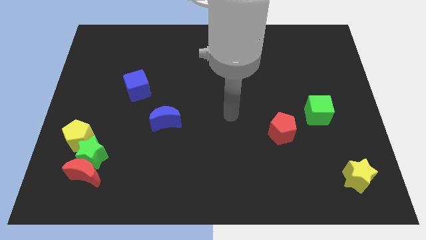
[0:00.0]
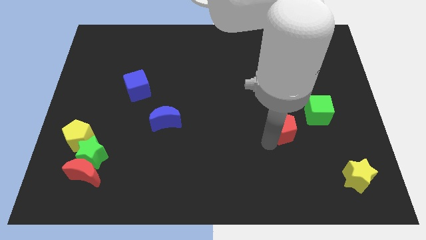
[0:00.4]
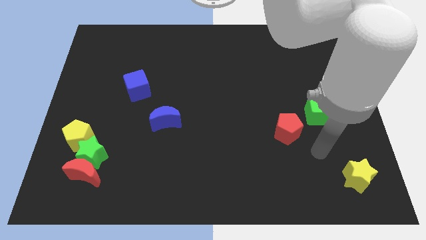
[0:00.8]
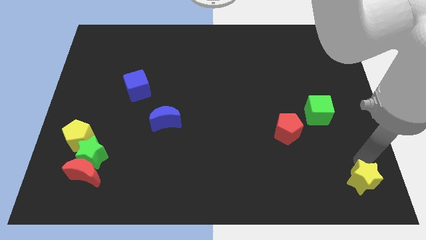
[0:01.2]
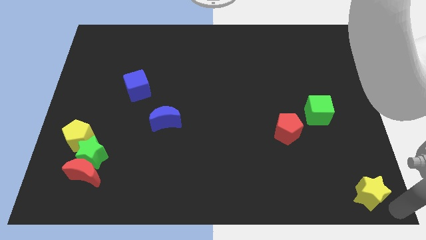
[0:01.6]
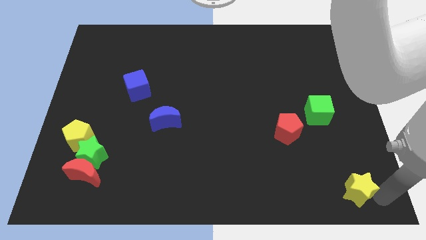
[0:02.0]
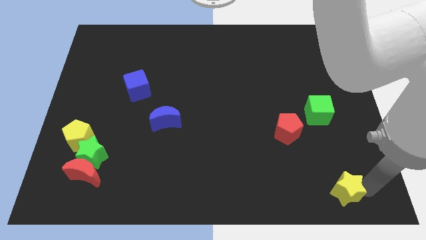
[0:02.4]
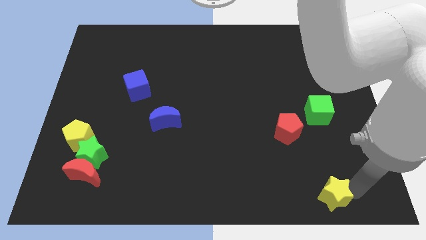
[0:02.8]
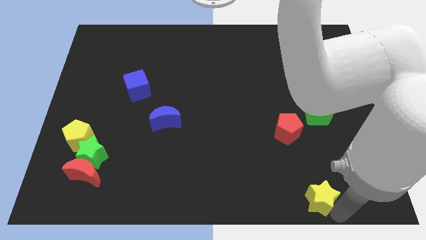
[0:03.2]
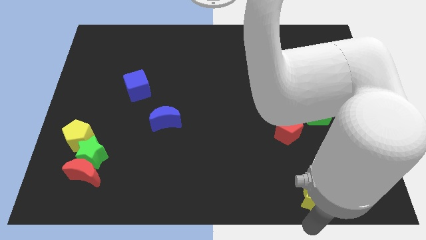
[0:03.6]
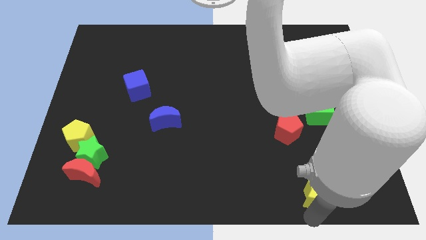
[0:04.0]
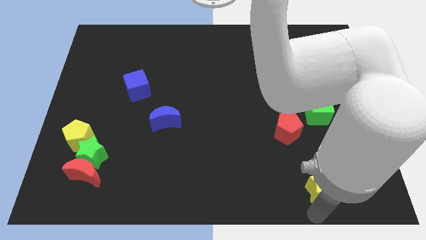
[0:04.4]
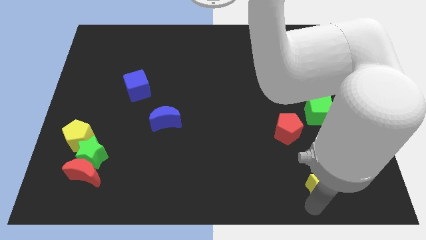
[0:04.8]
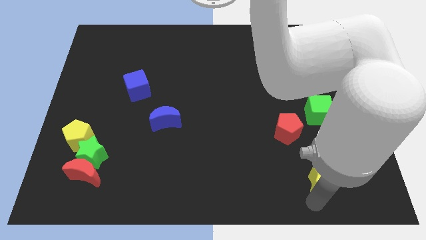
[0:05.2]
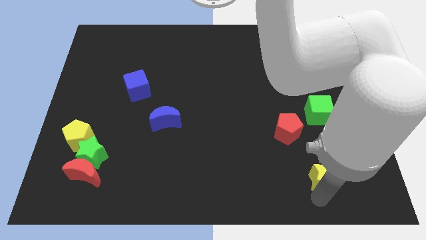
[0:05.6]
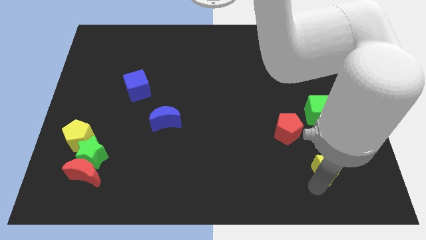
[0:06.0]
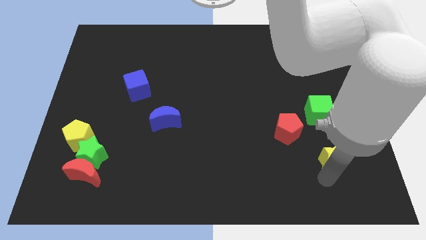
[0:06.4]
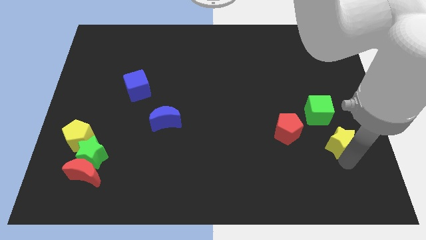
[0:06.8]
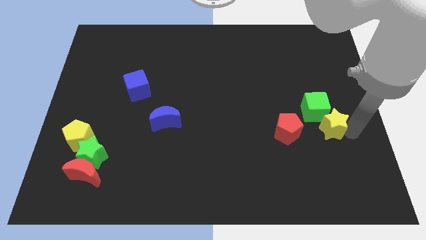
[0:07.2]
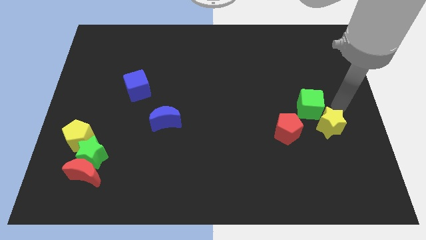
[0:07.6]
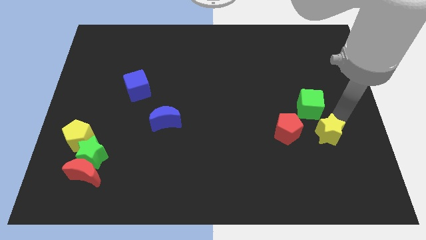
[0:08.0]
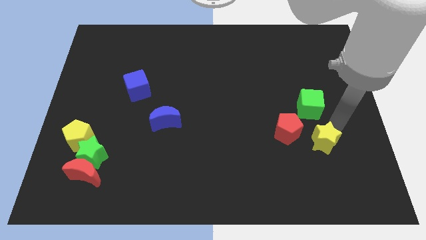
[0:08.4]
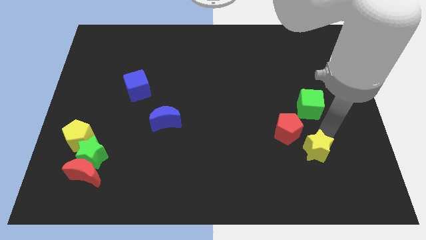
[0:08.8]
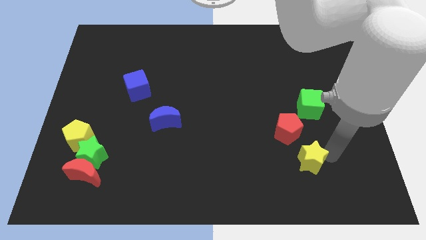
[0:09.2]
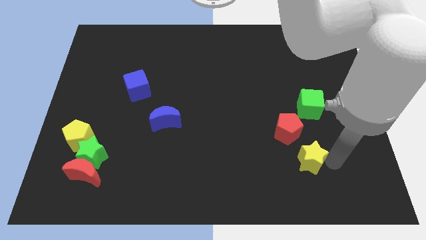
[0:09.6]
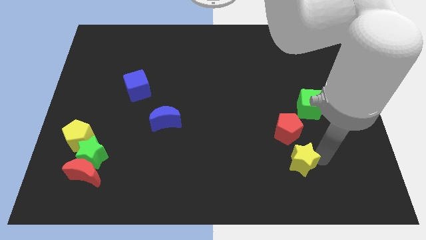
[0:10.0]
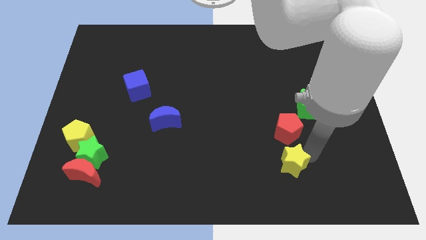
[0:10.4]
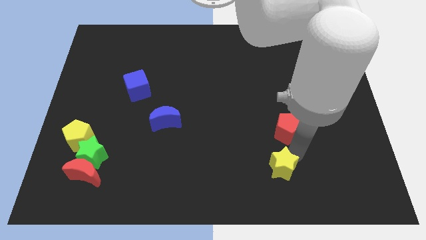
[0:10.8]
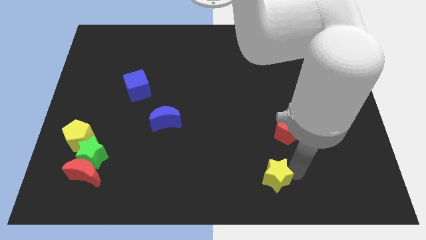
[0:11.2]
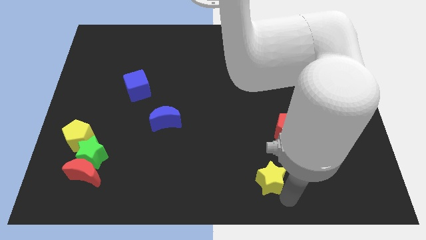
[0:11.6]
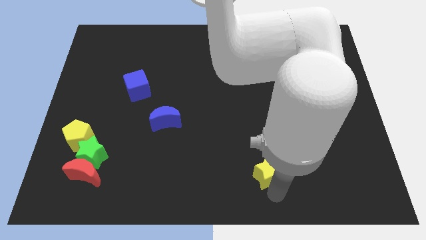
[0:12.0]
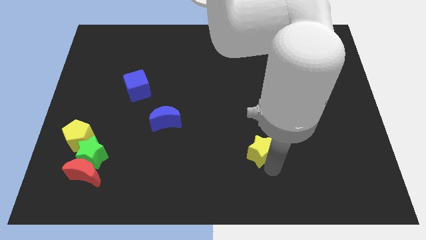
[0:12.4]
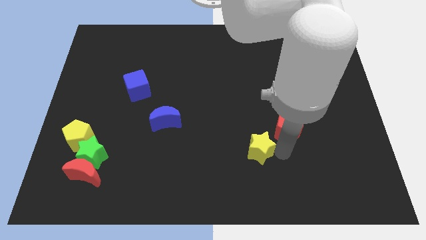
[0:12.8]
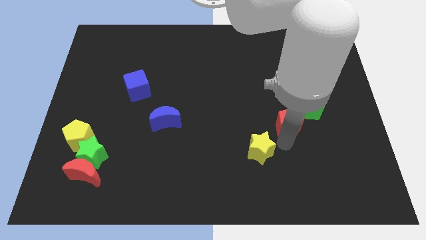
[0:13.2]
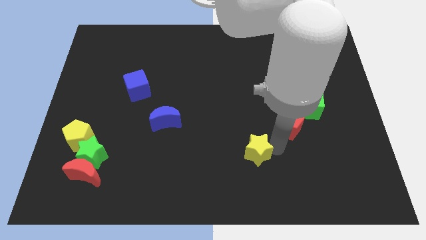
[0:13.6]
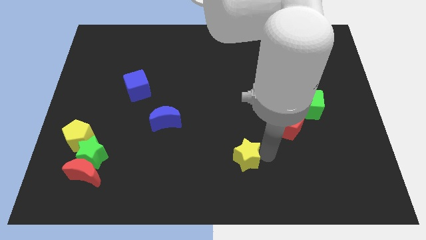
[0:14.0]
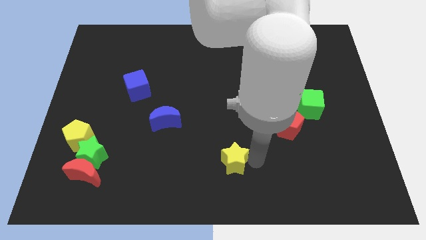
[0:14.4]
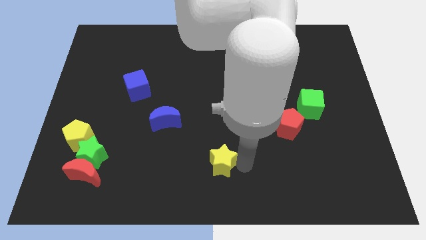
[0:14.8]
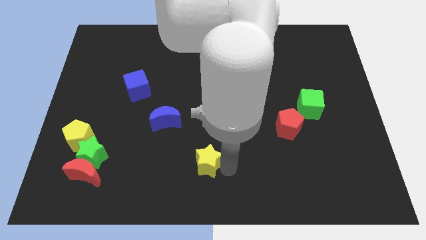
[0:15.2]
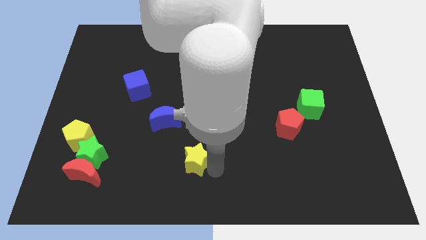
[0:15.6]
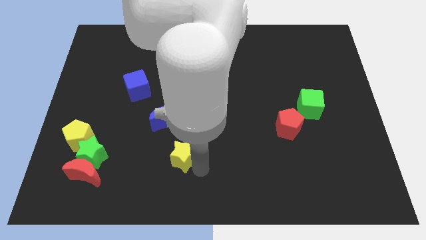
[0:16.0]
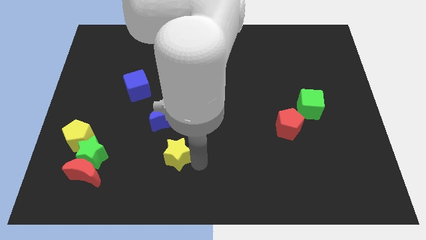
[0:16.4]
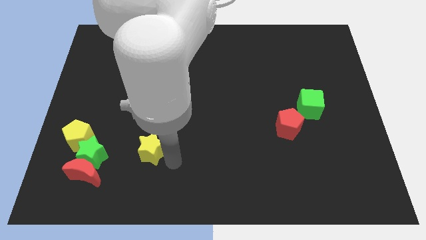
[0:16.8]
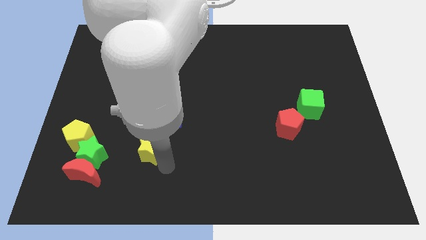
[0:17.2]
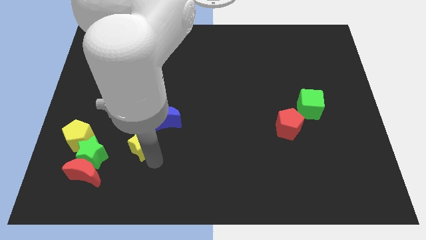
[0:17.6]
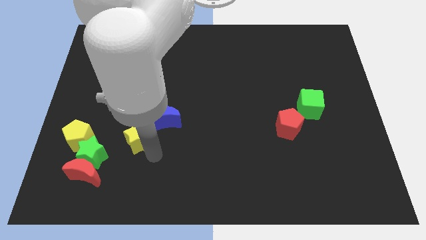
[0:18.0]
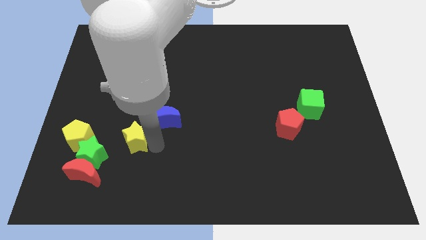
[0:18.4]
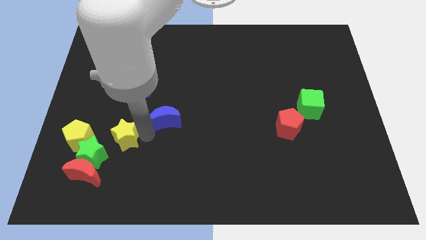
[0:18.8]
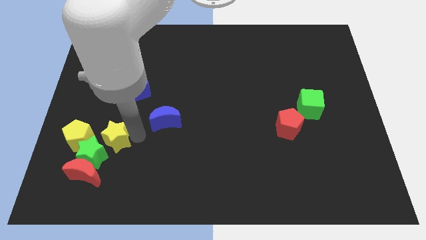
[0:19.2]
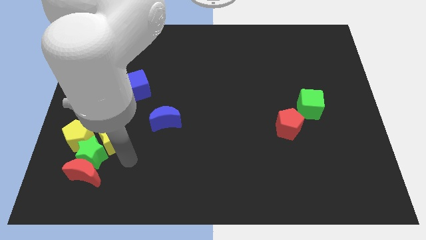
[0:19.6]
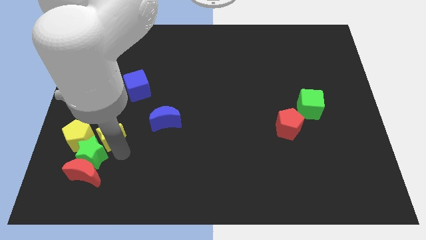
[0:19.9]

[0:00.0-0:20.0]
move the yellow star to the top right of the yellow pentagon

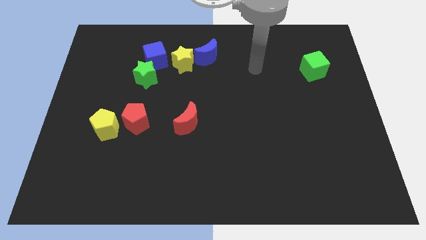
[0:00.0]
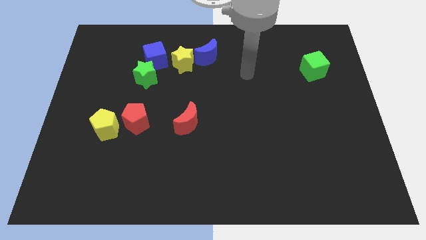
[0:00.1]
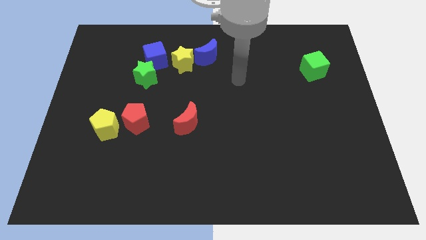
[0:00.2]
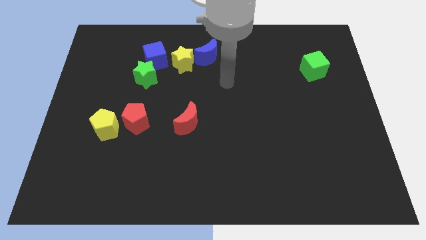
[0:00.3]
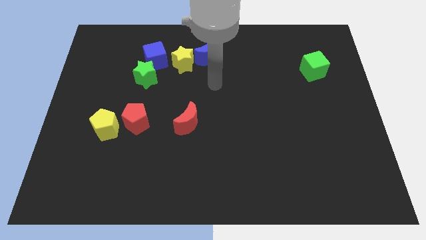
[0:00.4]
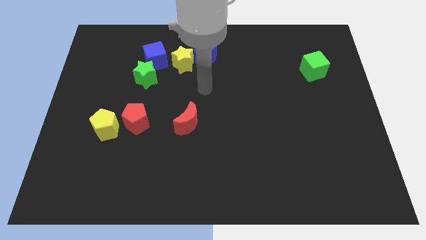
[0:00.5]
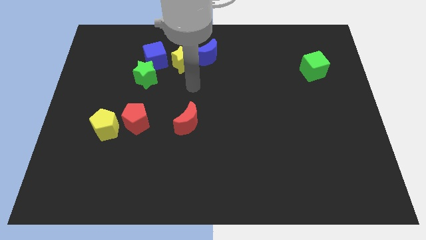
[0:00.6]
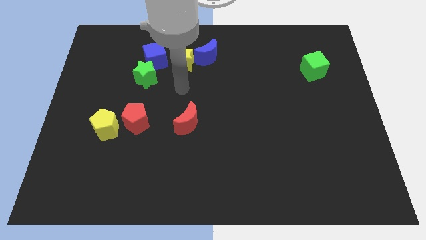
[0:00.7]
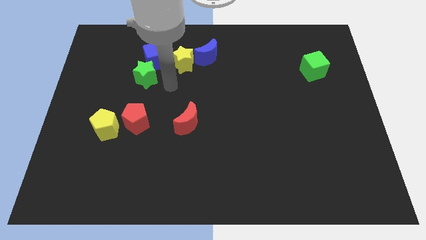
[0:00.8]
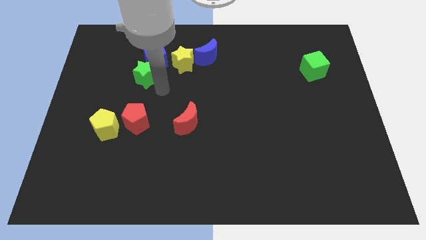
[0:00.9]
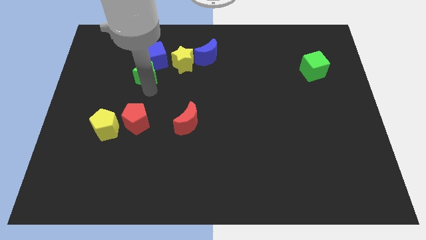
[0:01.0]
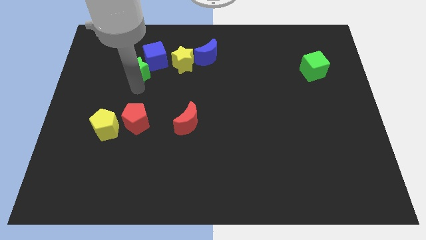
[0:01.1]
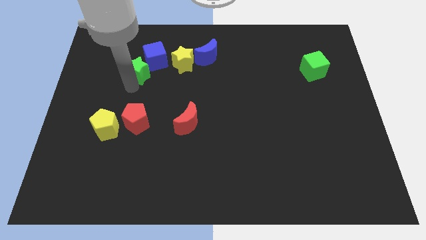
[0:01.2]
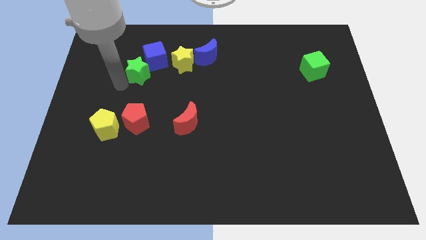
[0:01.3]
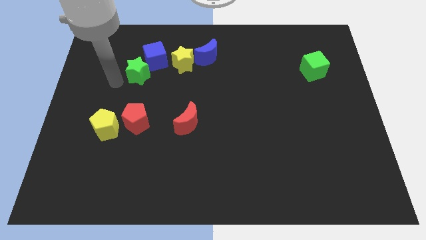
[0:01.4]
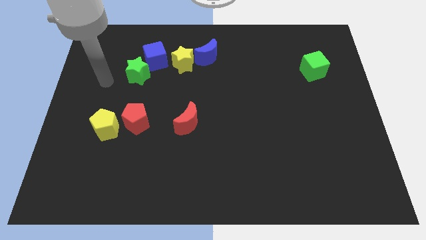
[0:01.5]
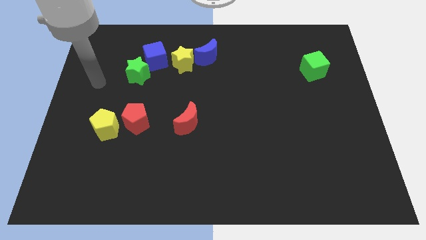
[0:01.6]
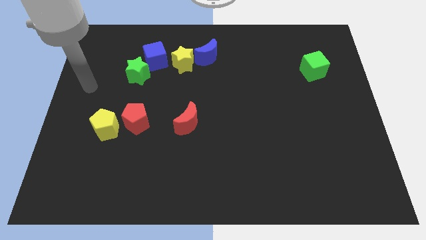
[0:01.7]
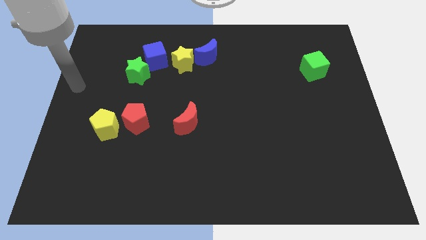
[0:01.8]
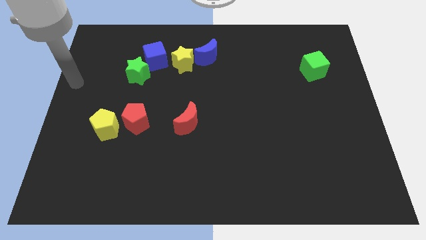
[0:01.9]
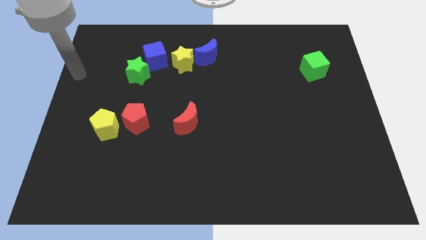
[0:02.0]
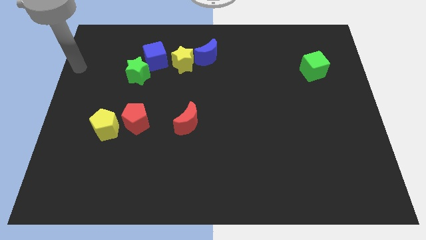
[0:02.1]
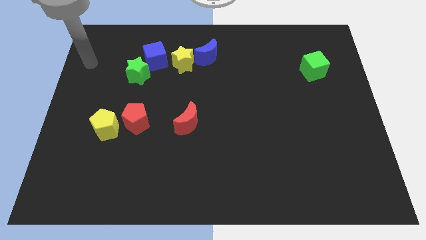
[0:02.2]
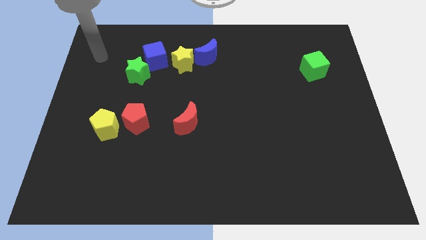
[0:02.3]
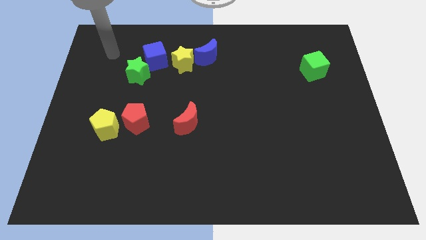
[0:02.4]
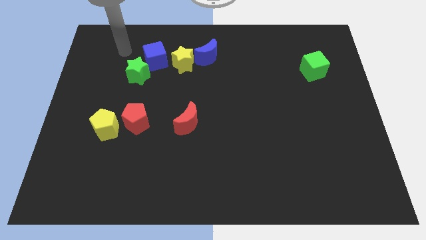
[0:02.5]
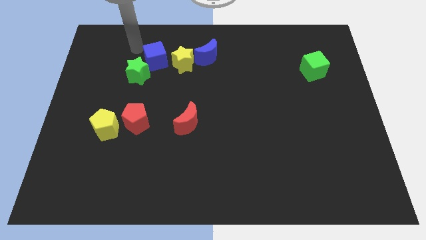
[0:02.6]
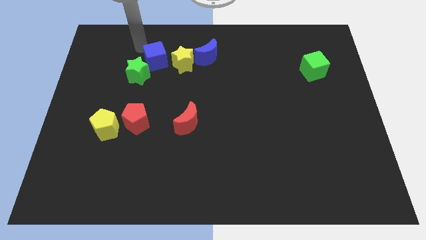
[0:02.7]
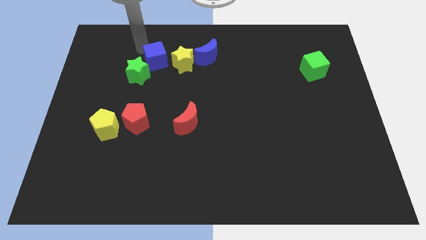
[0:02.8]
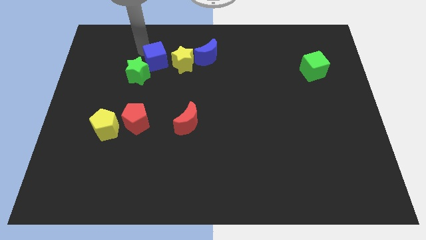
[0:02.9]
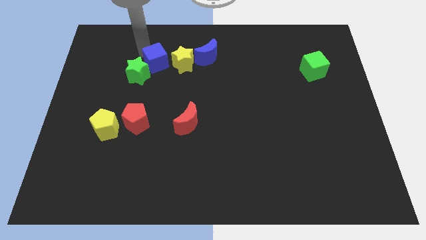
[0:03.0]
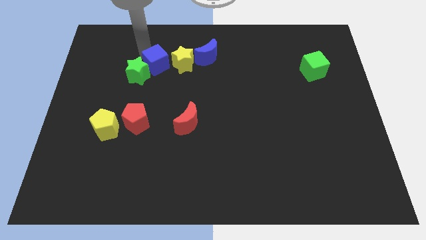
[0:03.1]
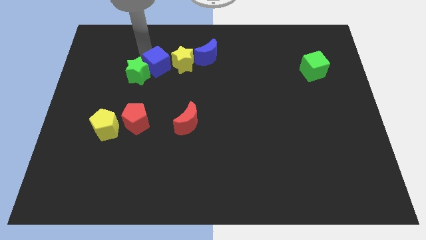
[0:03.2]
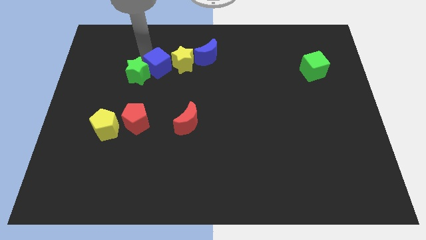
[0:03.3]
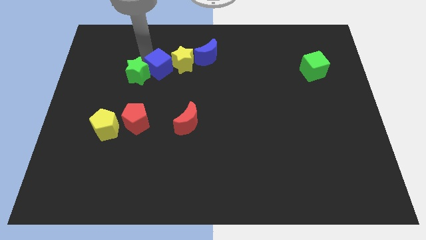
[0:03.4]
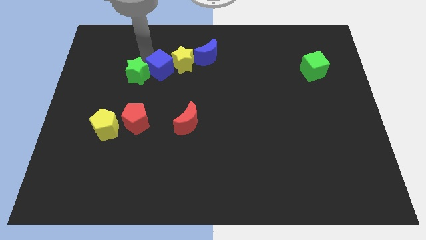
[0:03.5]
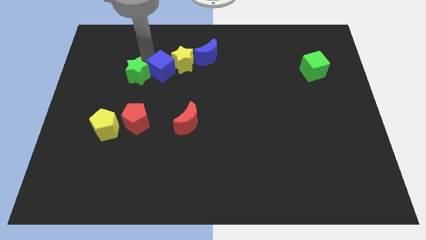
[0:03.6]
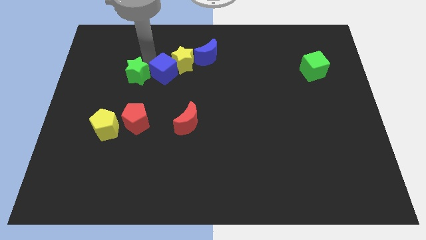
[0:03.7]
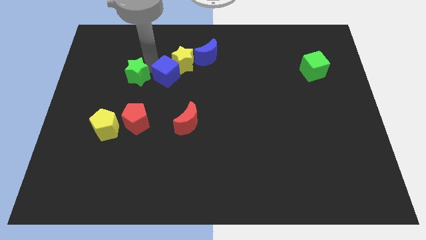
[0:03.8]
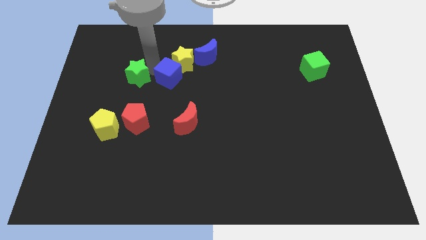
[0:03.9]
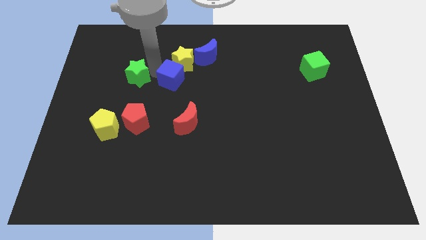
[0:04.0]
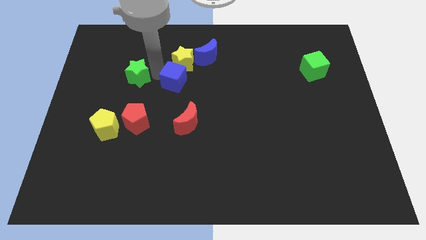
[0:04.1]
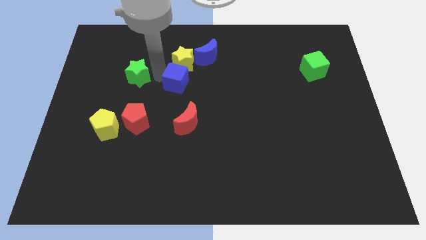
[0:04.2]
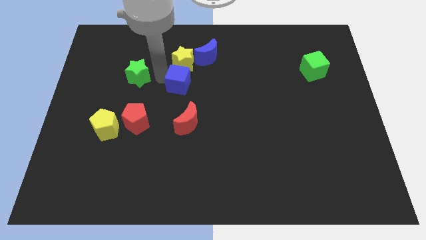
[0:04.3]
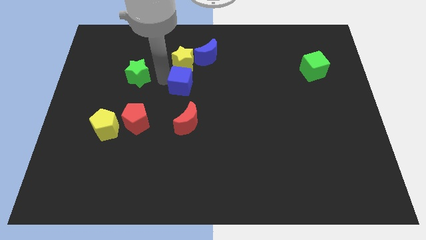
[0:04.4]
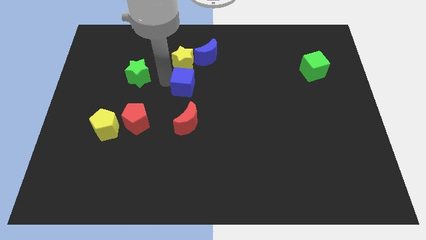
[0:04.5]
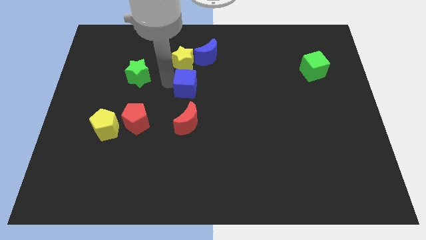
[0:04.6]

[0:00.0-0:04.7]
push the blue cube to the bottom right side of the yellow star
